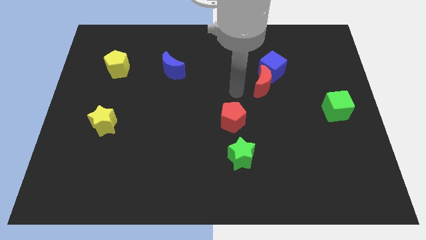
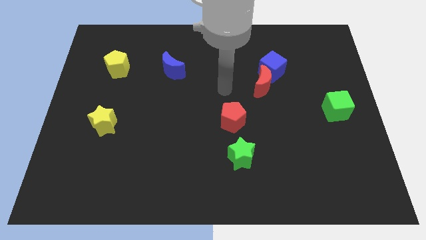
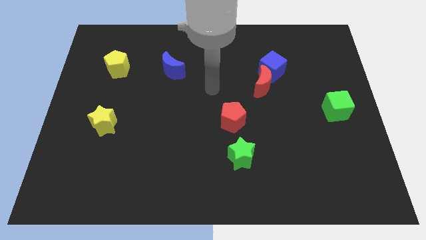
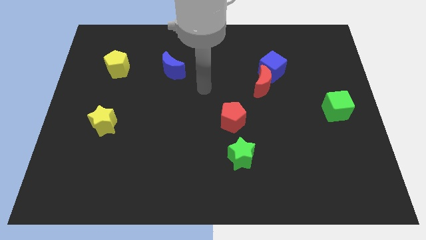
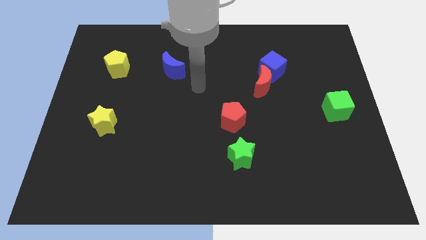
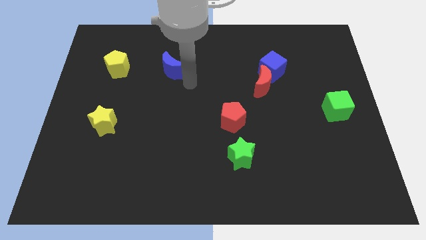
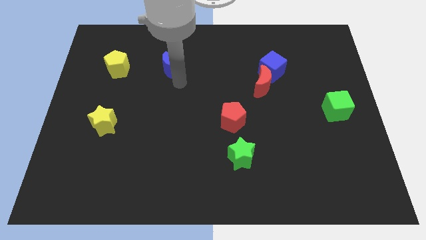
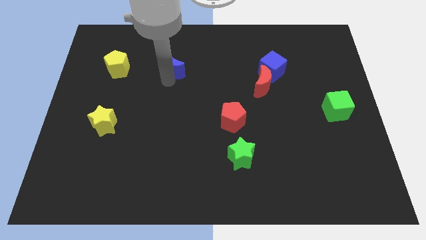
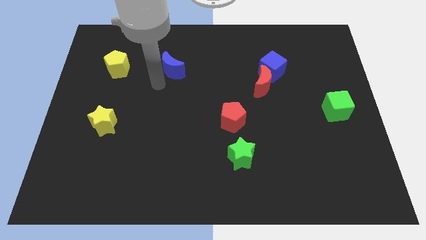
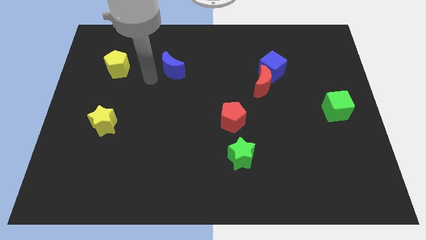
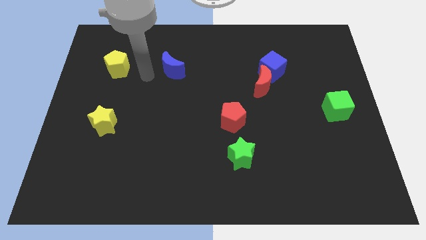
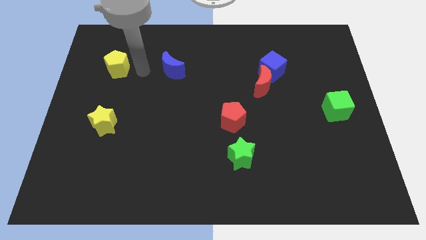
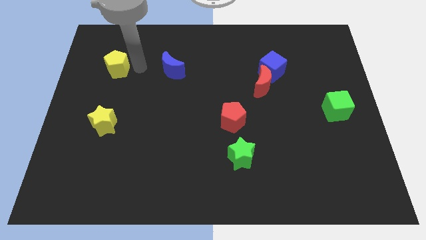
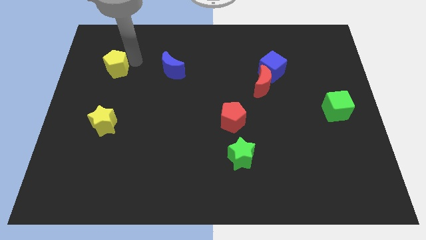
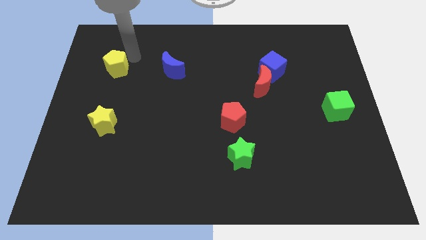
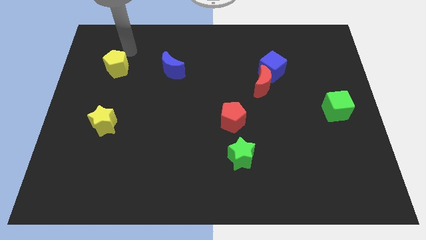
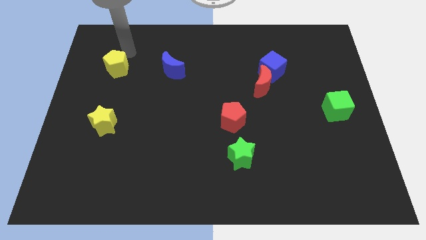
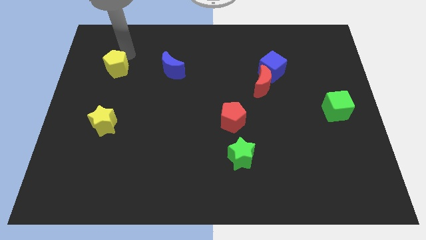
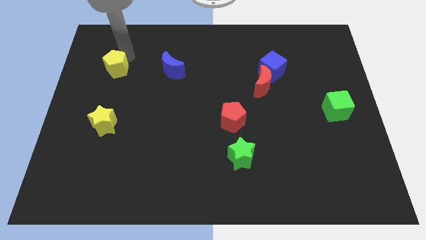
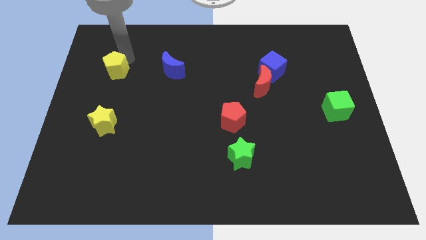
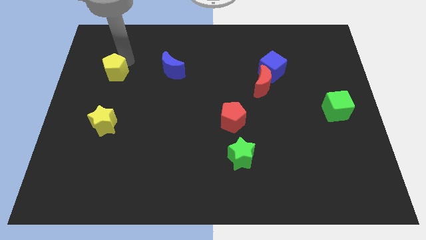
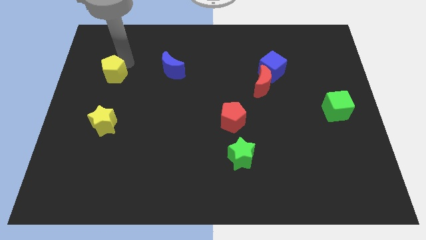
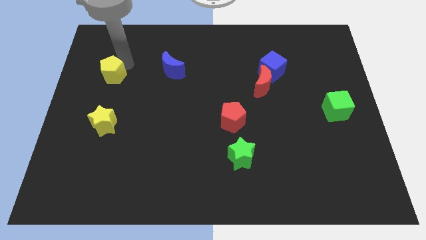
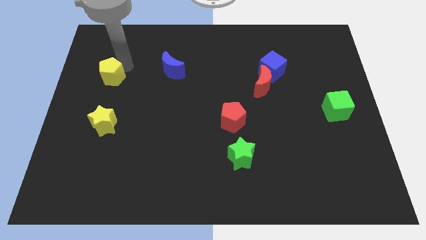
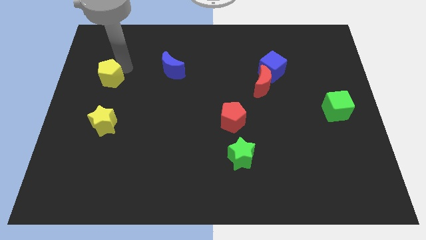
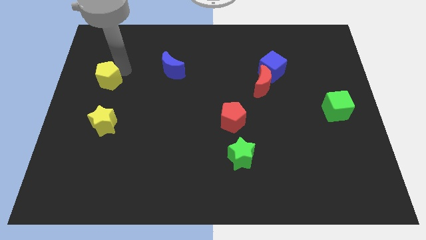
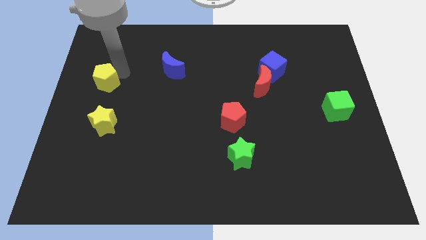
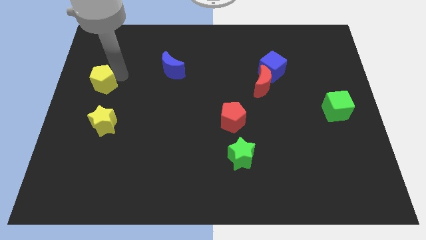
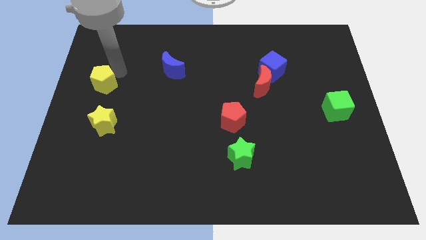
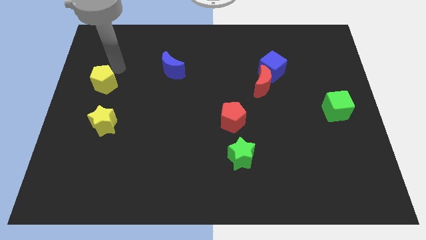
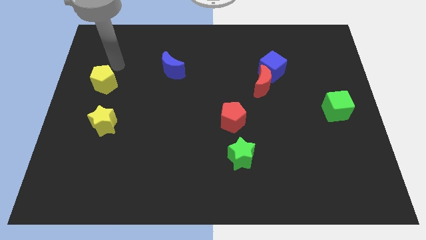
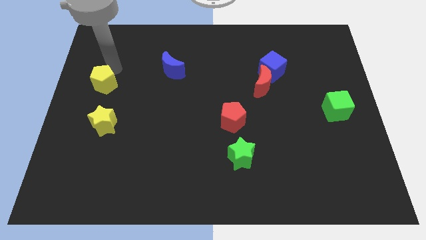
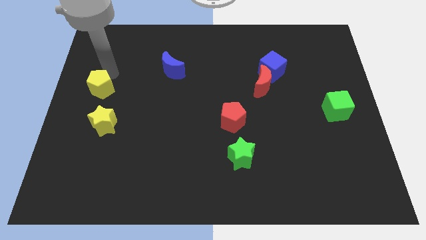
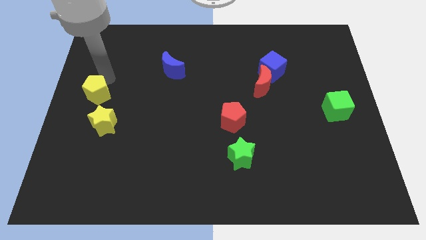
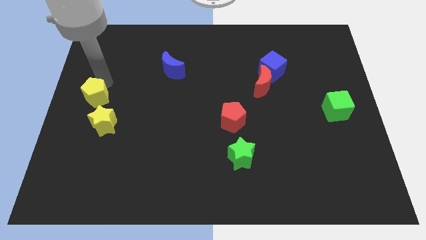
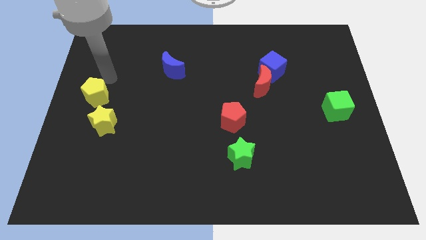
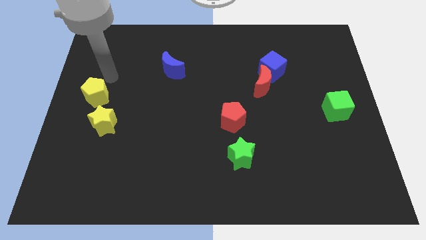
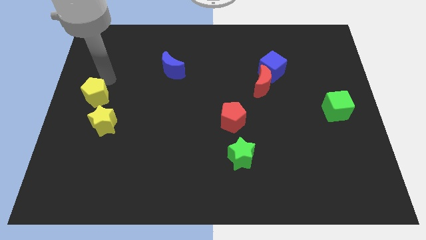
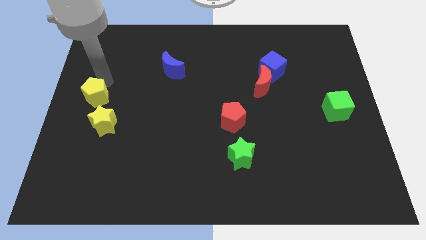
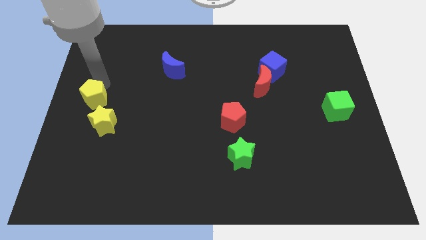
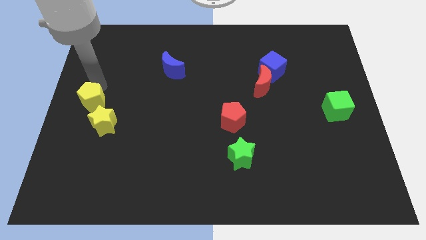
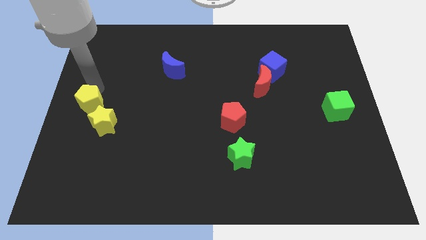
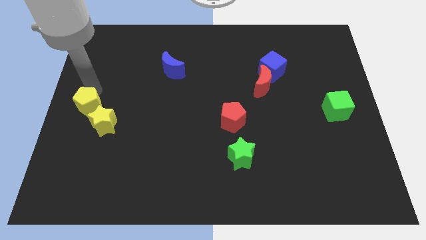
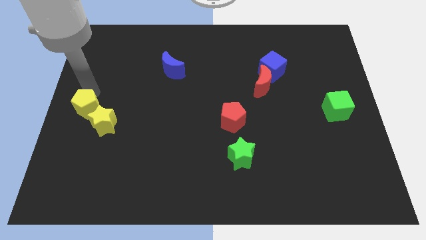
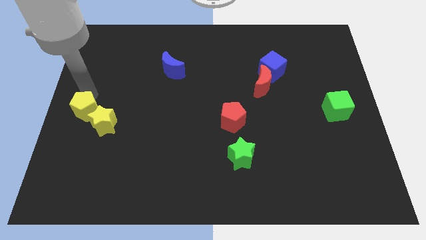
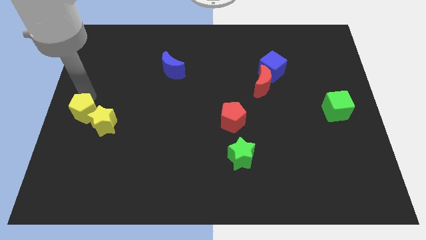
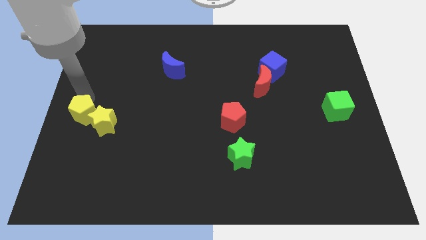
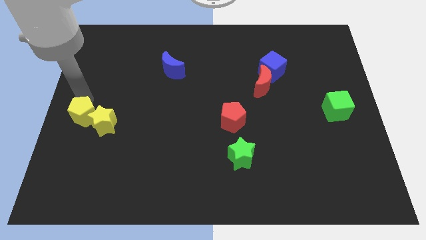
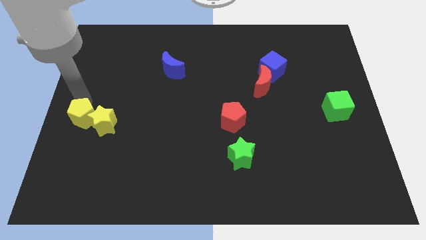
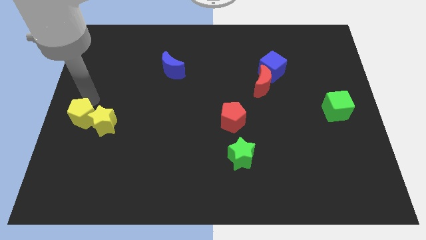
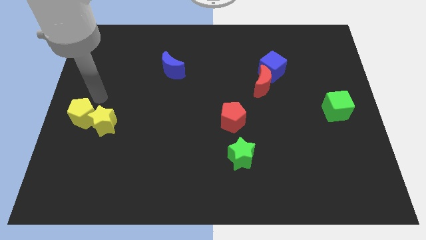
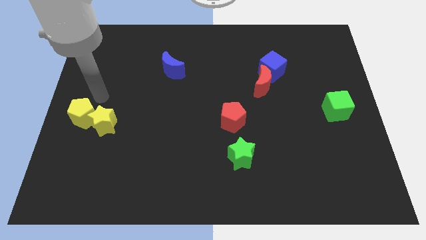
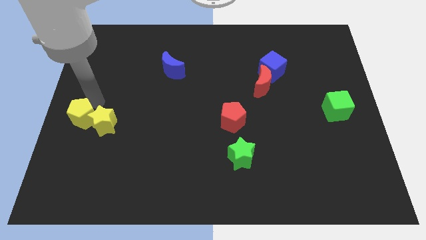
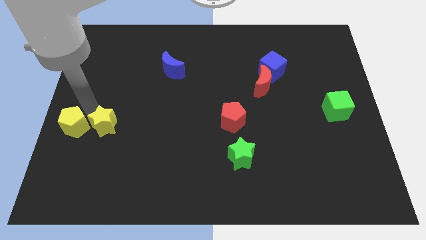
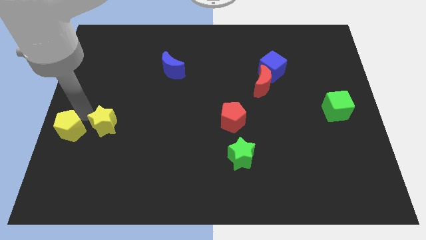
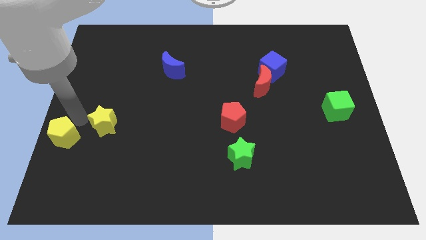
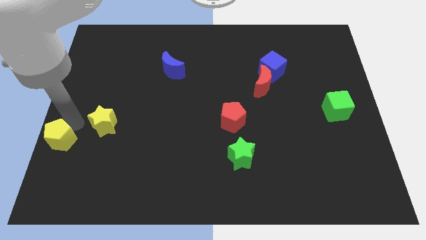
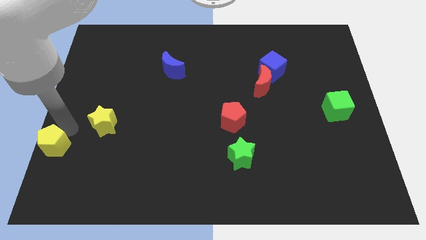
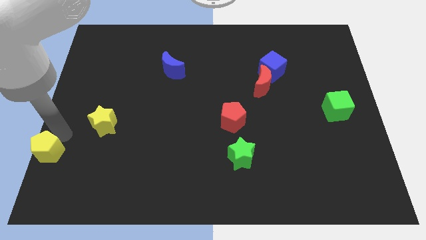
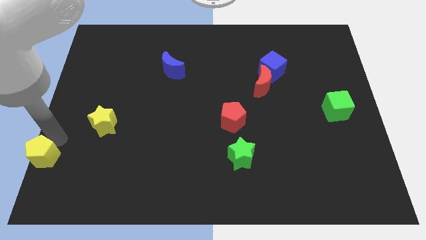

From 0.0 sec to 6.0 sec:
slide the yellow pentagon to the lower left corner
